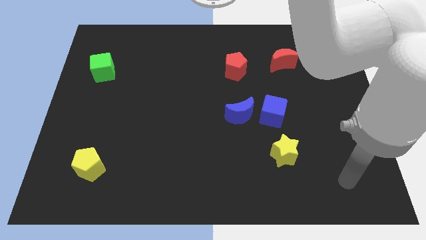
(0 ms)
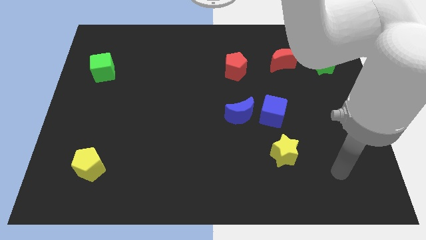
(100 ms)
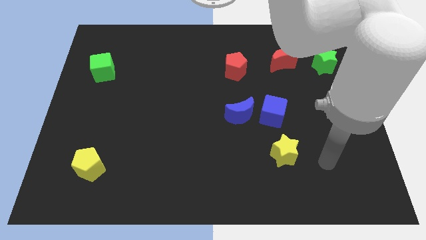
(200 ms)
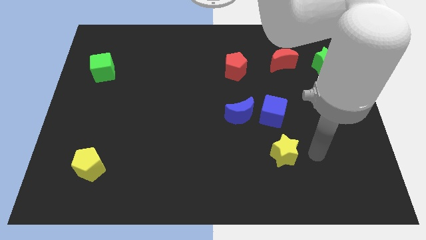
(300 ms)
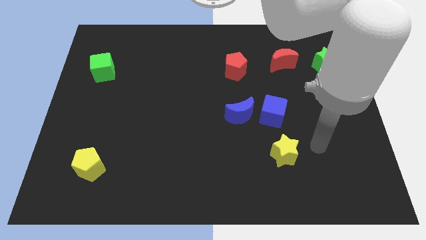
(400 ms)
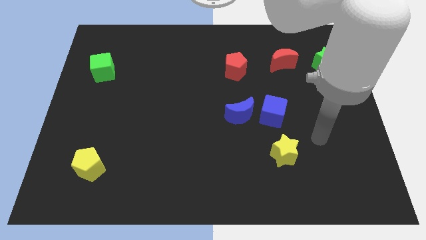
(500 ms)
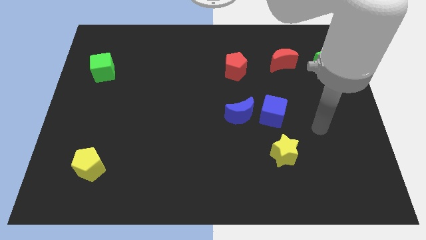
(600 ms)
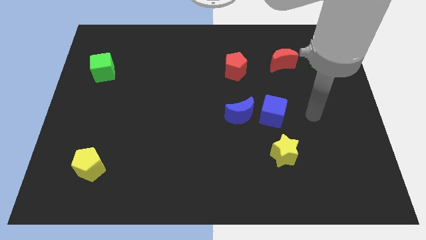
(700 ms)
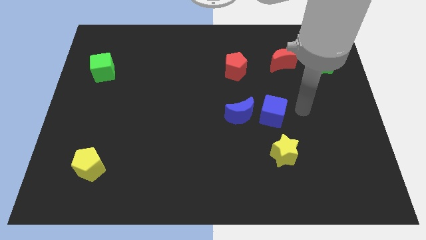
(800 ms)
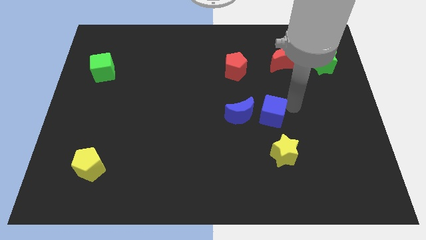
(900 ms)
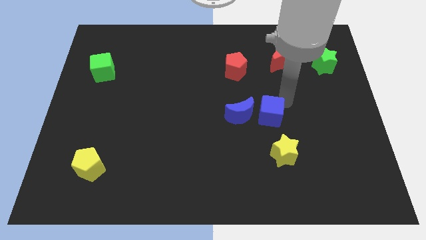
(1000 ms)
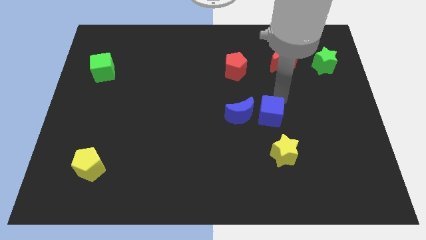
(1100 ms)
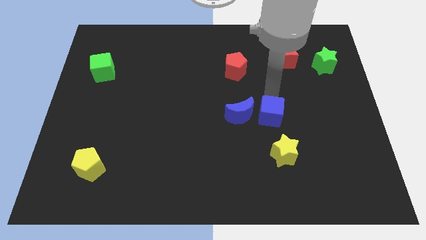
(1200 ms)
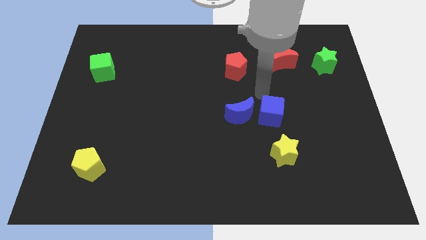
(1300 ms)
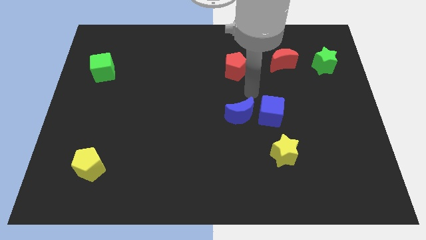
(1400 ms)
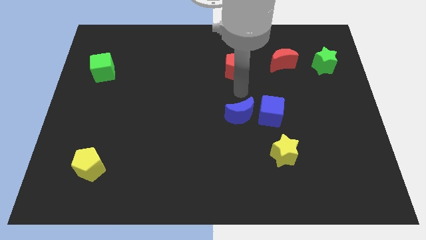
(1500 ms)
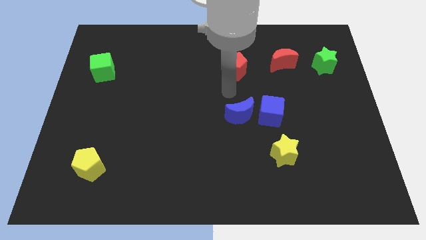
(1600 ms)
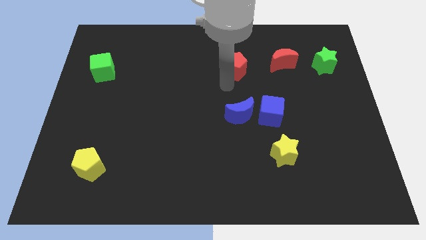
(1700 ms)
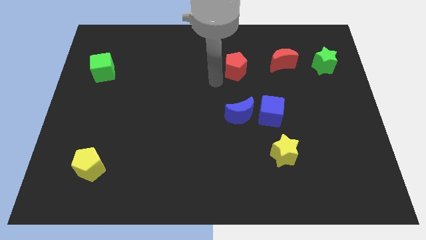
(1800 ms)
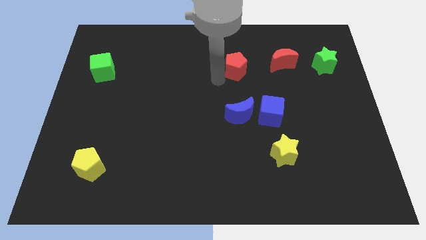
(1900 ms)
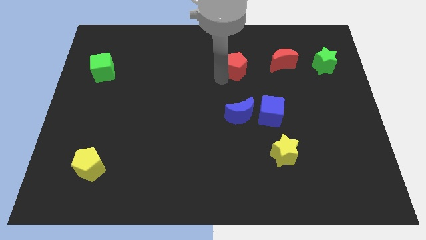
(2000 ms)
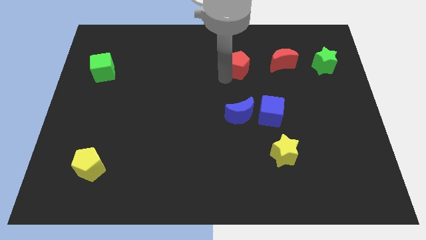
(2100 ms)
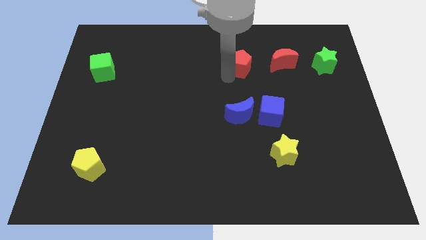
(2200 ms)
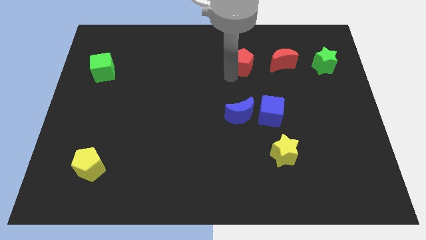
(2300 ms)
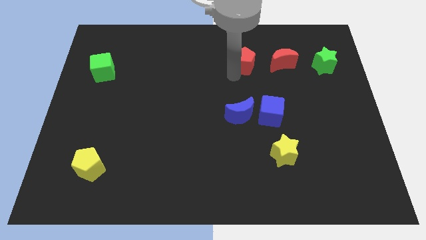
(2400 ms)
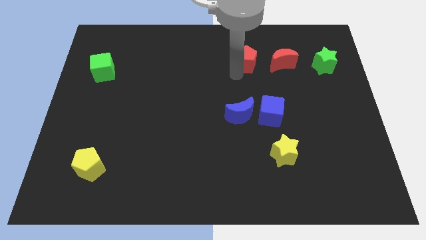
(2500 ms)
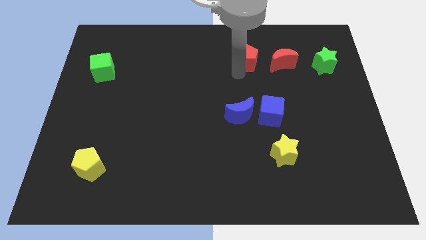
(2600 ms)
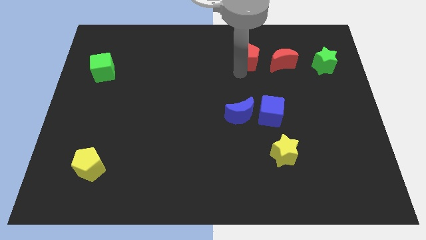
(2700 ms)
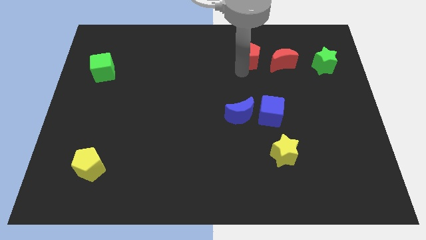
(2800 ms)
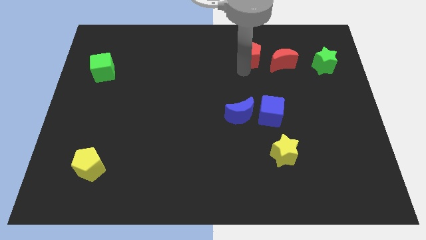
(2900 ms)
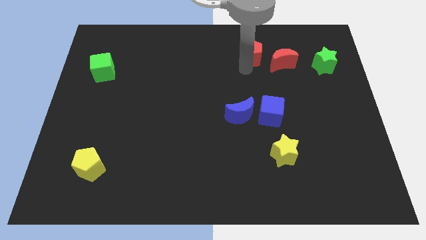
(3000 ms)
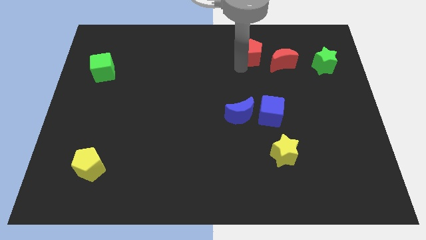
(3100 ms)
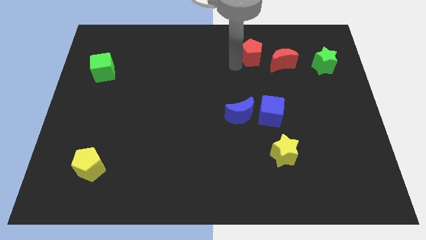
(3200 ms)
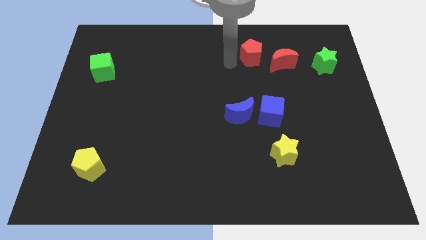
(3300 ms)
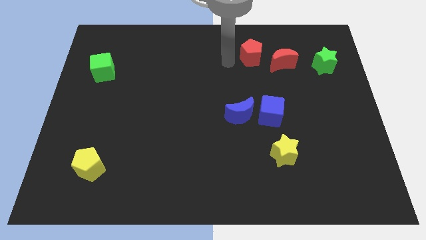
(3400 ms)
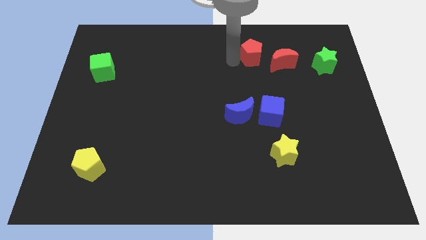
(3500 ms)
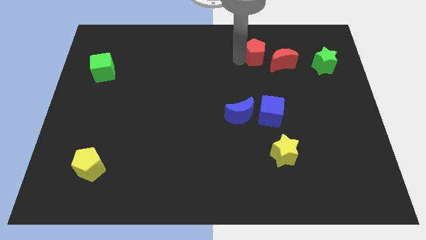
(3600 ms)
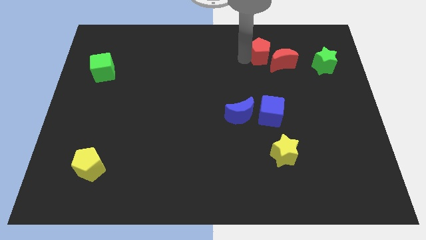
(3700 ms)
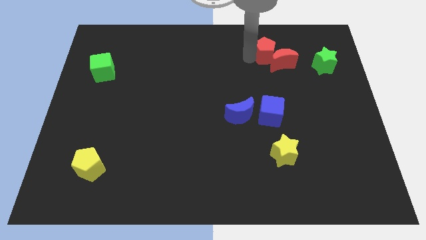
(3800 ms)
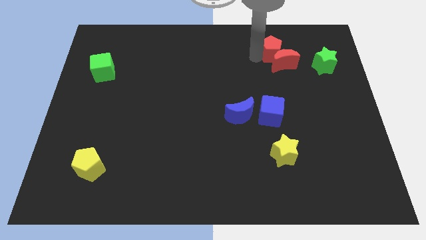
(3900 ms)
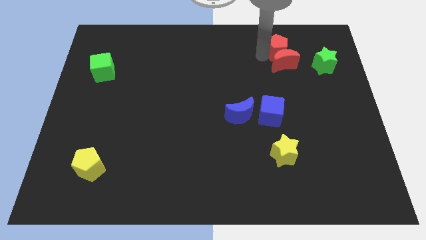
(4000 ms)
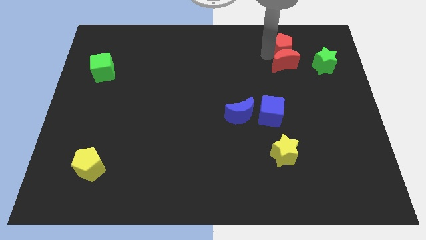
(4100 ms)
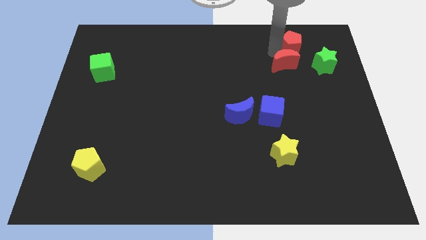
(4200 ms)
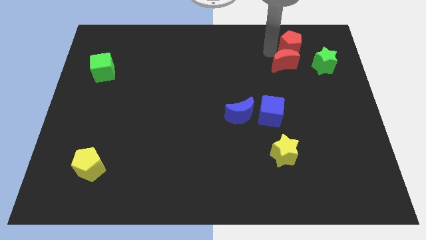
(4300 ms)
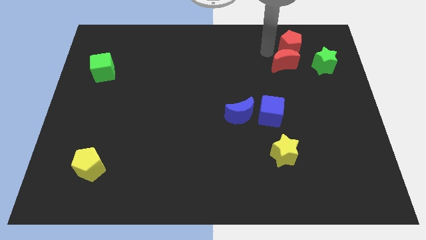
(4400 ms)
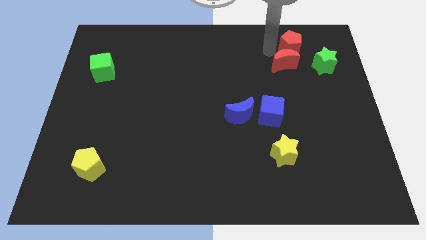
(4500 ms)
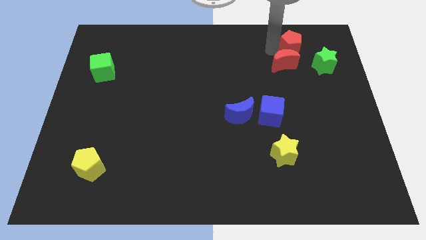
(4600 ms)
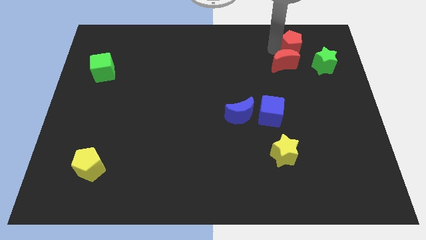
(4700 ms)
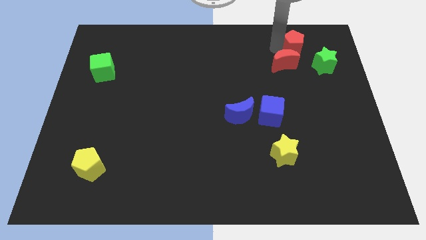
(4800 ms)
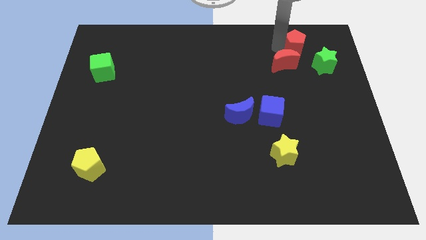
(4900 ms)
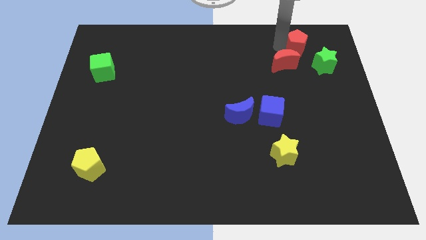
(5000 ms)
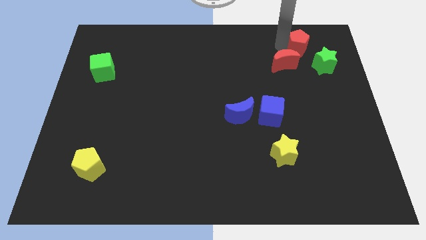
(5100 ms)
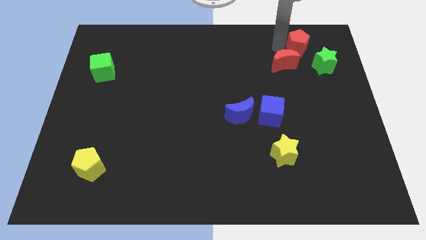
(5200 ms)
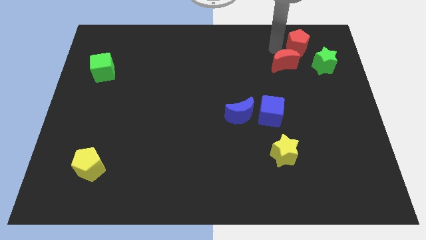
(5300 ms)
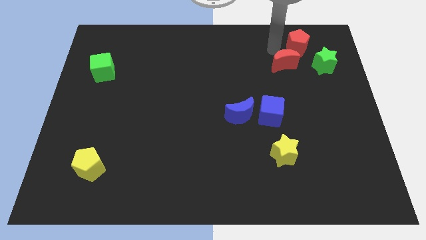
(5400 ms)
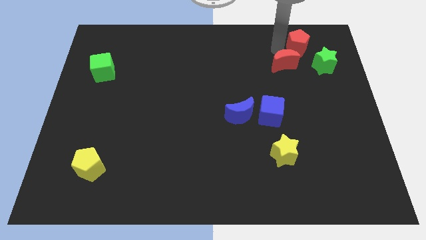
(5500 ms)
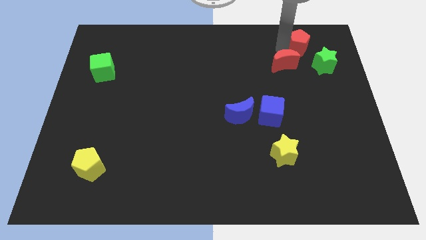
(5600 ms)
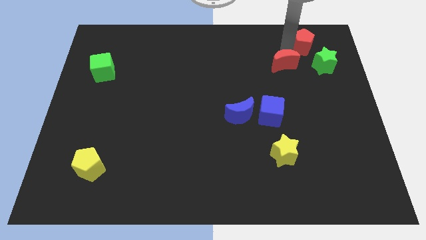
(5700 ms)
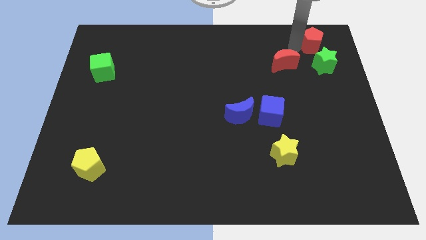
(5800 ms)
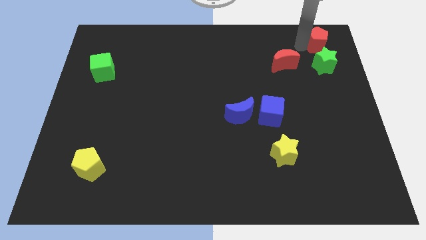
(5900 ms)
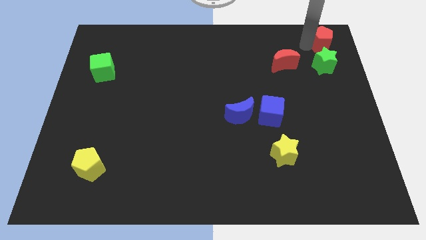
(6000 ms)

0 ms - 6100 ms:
slide the red pentagon to the top right
